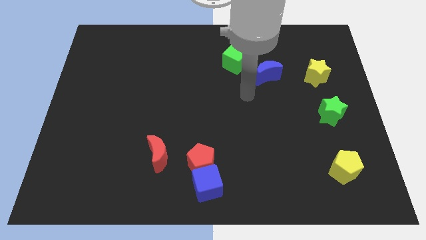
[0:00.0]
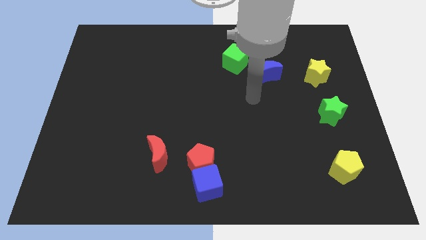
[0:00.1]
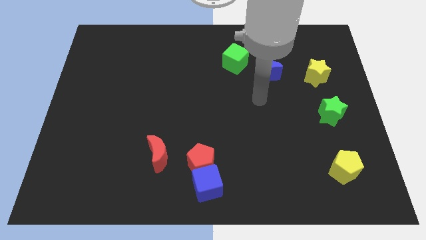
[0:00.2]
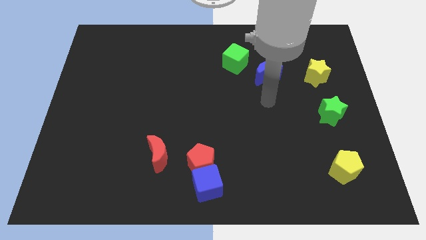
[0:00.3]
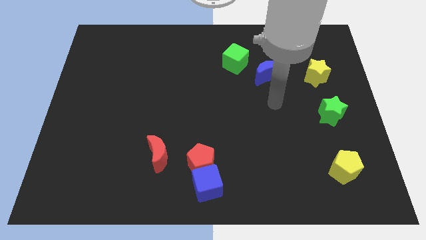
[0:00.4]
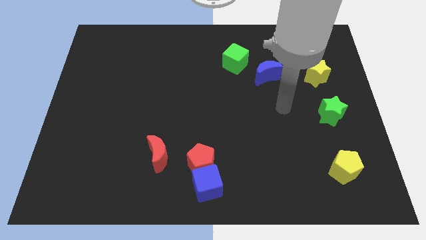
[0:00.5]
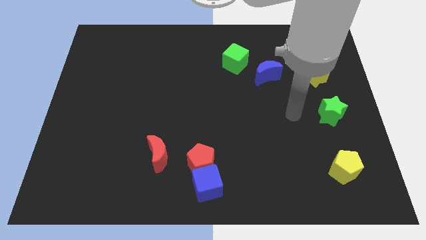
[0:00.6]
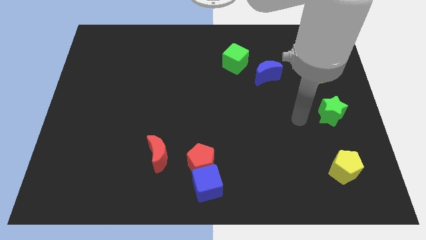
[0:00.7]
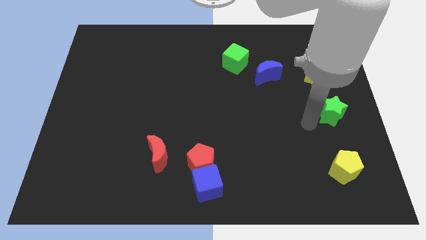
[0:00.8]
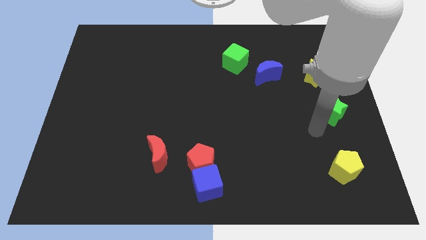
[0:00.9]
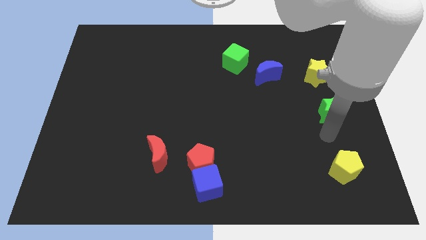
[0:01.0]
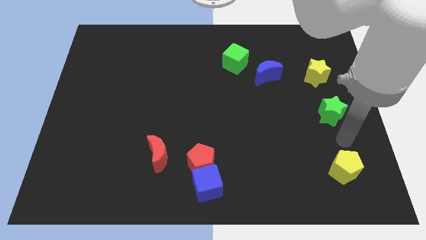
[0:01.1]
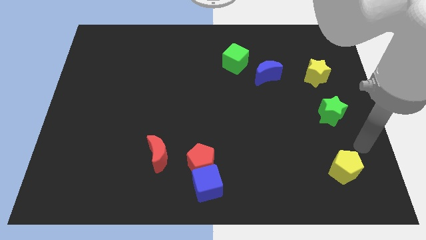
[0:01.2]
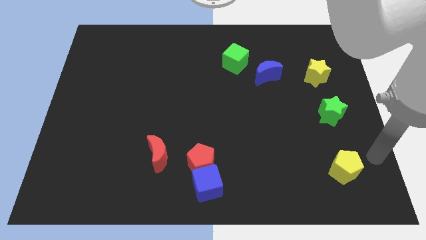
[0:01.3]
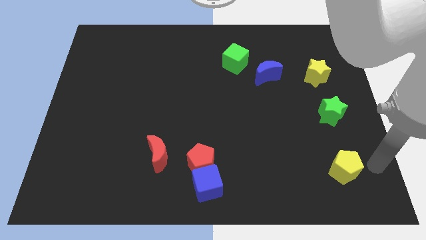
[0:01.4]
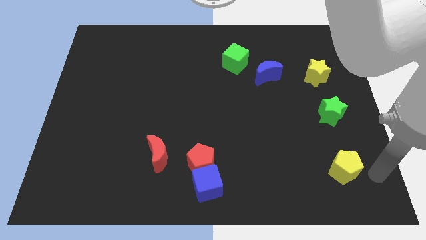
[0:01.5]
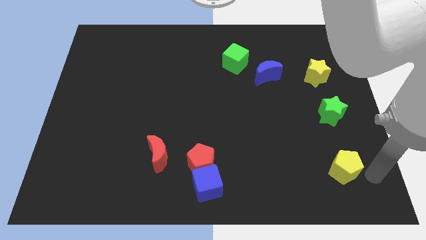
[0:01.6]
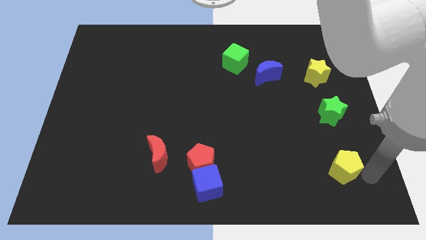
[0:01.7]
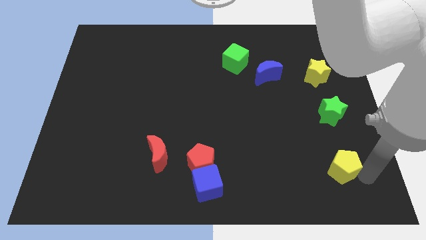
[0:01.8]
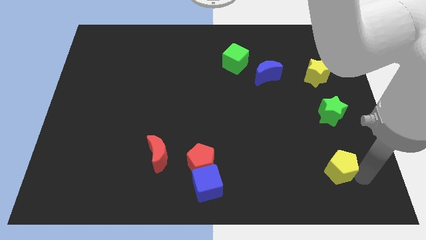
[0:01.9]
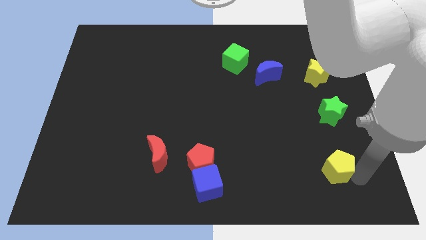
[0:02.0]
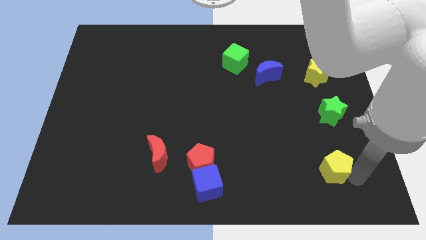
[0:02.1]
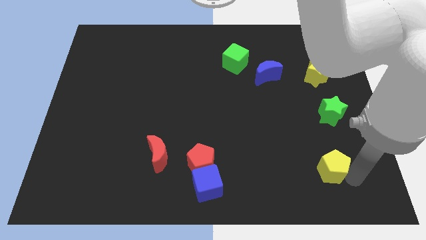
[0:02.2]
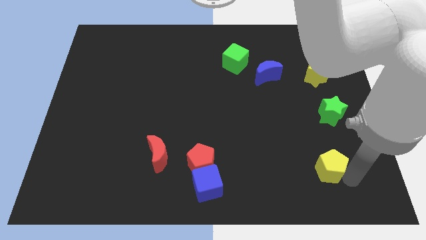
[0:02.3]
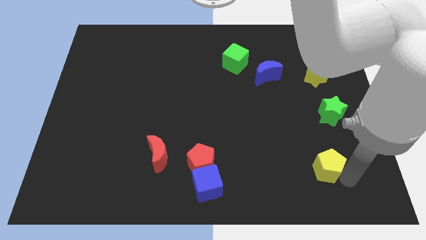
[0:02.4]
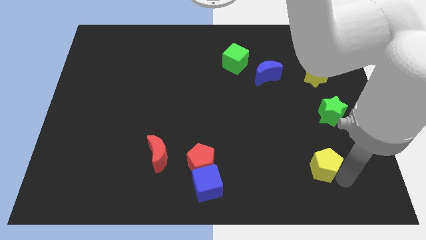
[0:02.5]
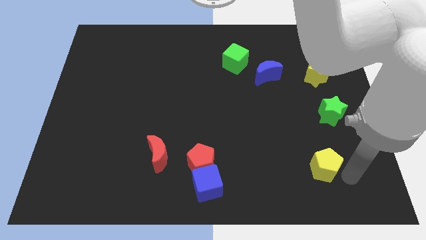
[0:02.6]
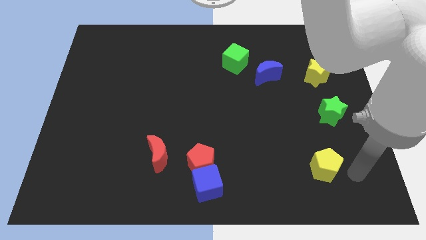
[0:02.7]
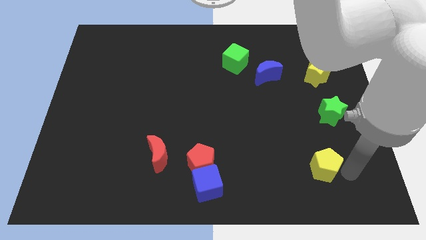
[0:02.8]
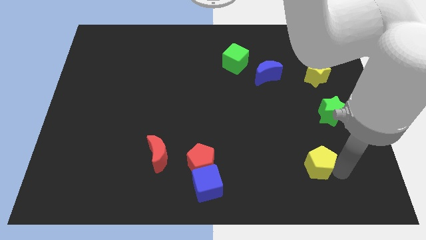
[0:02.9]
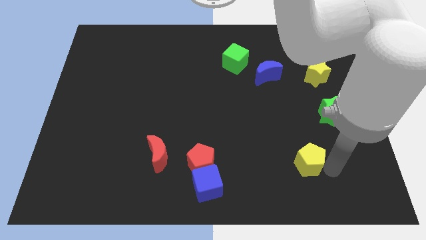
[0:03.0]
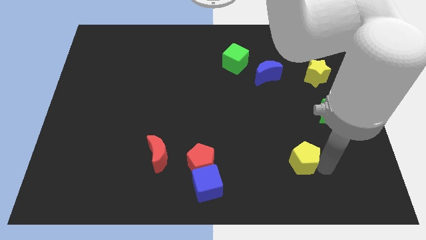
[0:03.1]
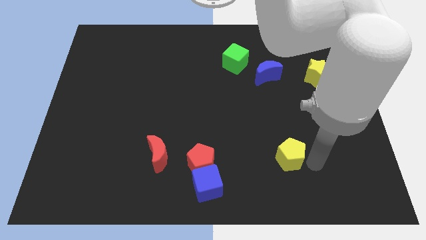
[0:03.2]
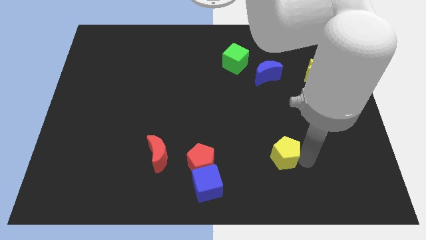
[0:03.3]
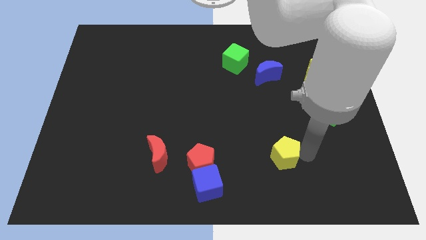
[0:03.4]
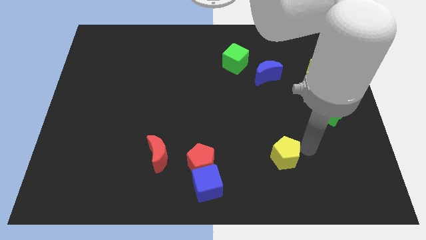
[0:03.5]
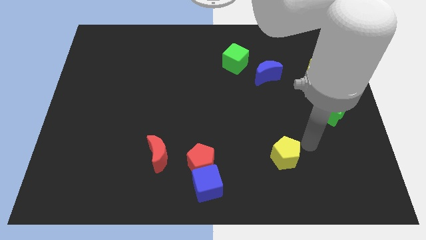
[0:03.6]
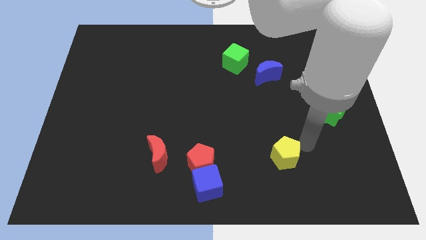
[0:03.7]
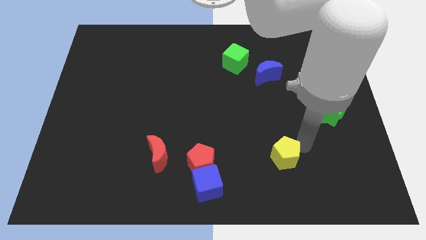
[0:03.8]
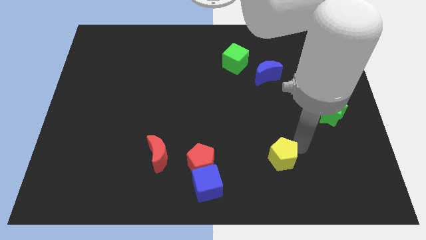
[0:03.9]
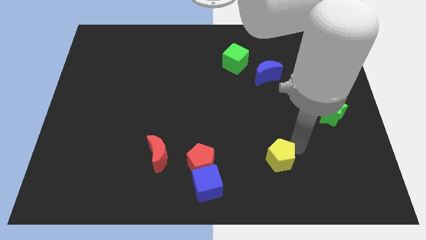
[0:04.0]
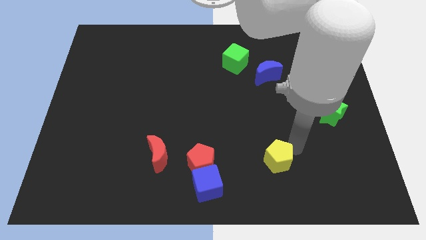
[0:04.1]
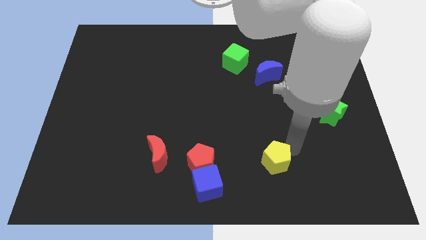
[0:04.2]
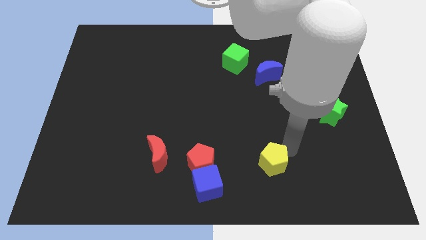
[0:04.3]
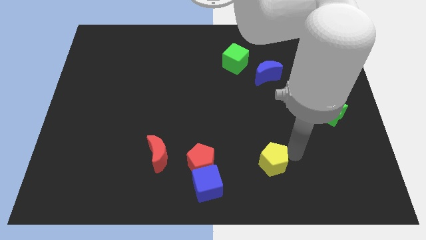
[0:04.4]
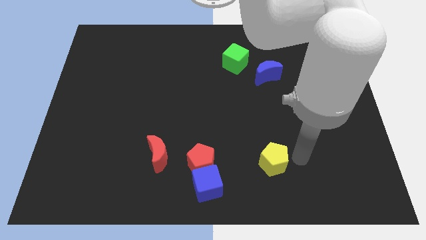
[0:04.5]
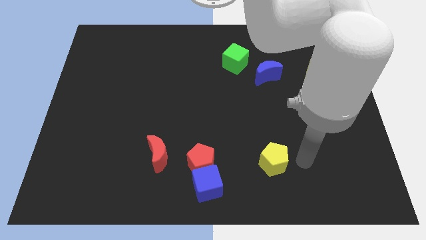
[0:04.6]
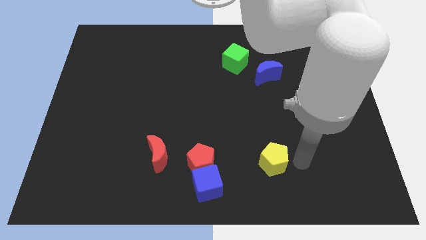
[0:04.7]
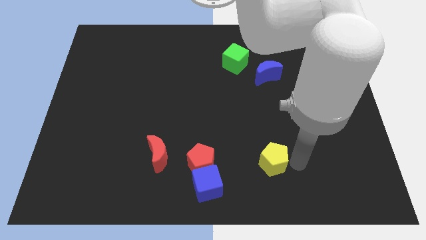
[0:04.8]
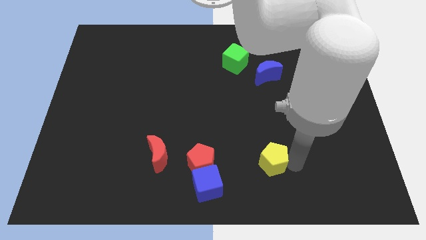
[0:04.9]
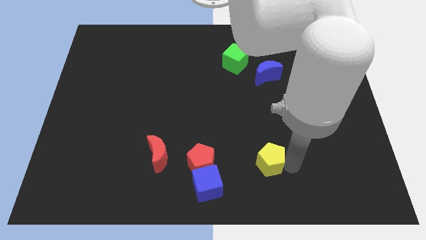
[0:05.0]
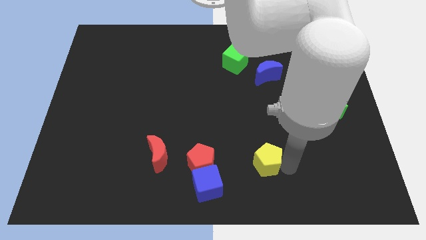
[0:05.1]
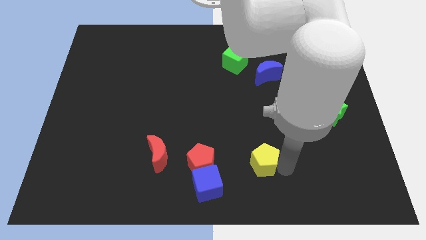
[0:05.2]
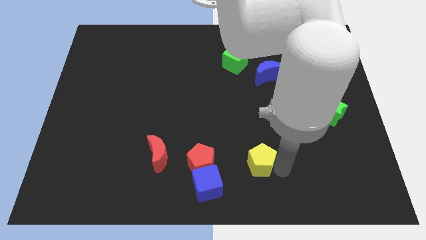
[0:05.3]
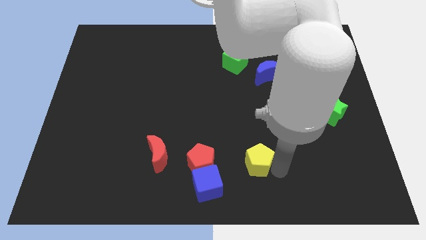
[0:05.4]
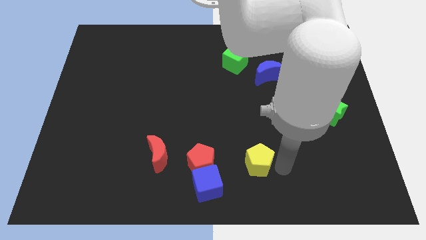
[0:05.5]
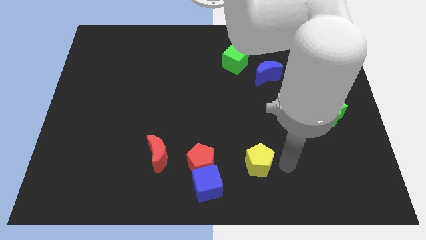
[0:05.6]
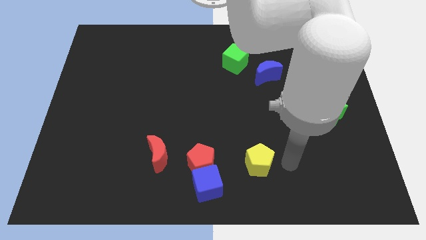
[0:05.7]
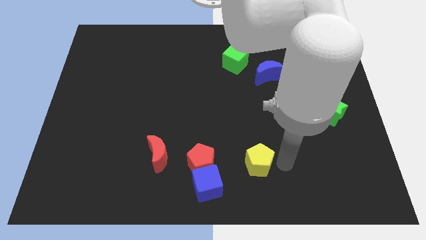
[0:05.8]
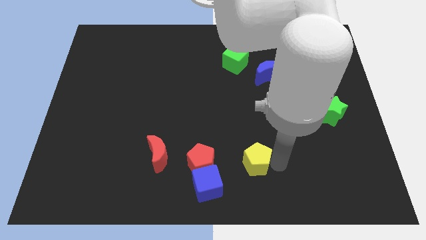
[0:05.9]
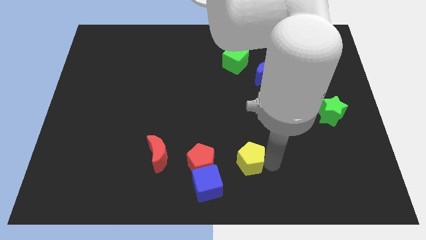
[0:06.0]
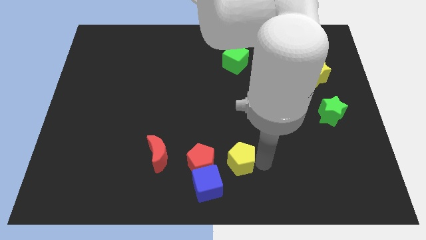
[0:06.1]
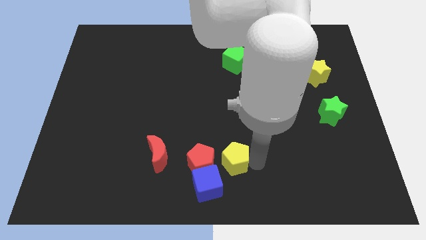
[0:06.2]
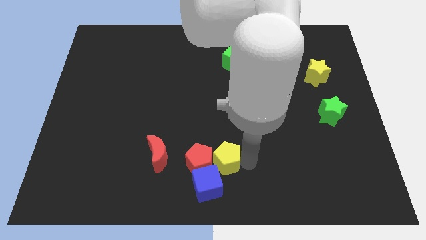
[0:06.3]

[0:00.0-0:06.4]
push the yellow pentagon close to the red pentagon

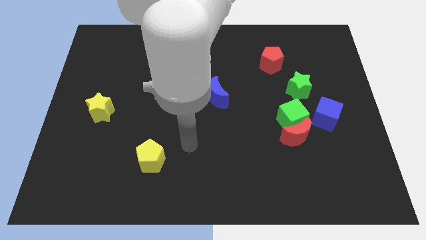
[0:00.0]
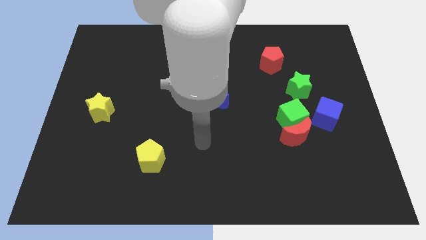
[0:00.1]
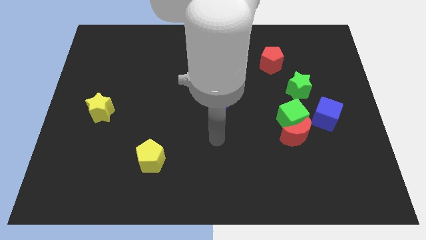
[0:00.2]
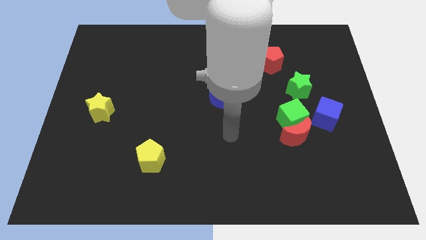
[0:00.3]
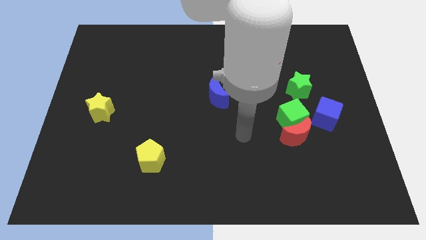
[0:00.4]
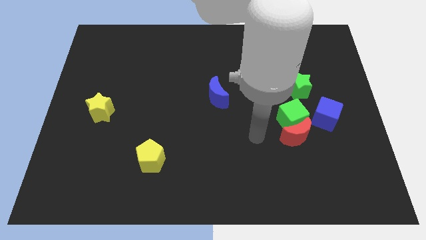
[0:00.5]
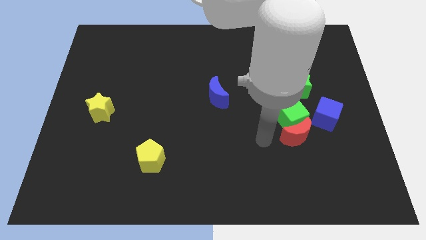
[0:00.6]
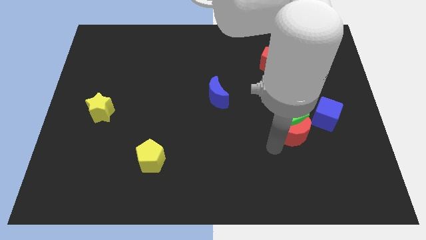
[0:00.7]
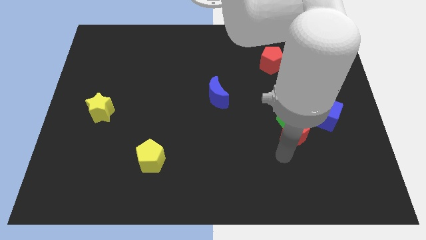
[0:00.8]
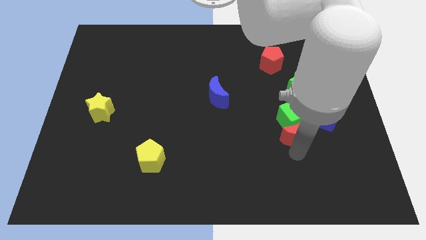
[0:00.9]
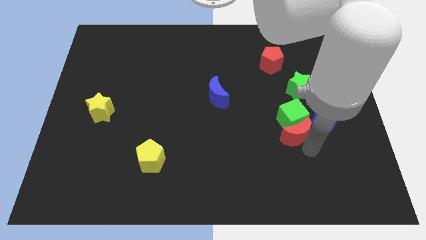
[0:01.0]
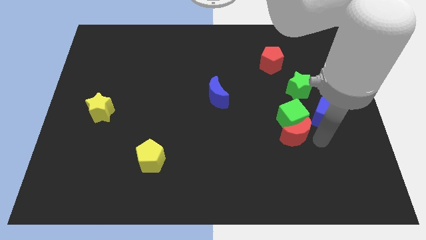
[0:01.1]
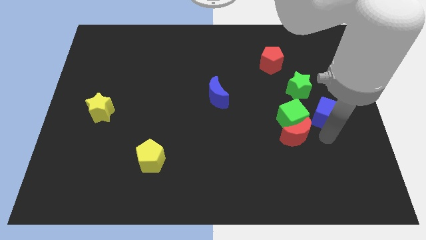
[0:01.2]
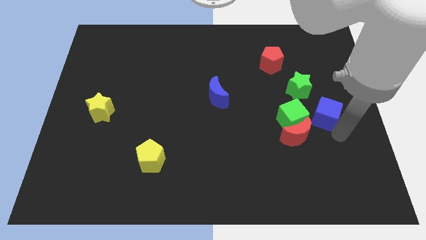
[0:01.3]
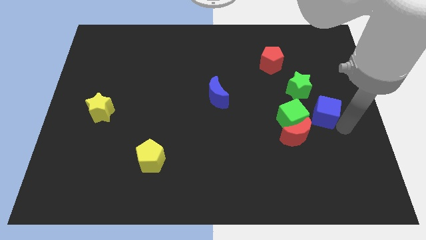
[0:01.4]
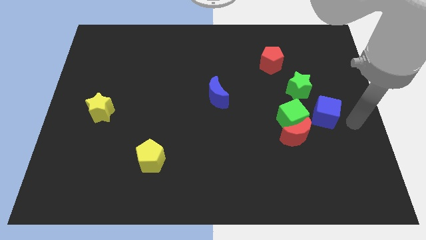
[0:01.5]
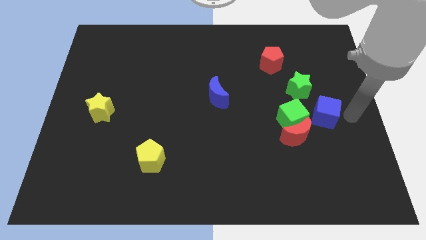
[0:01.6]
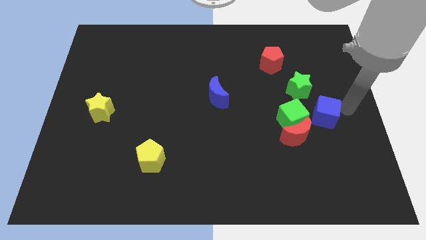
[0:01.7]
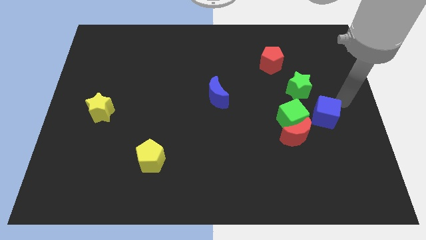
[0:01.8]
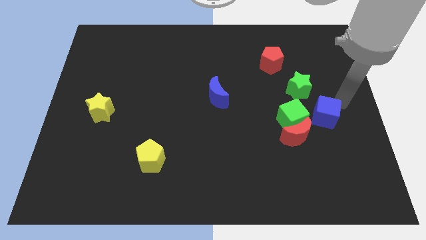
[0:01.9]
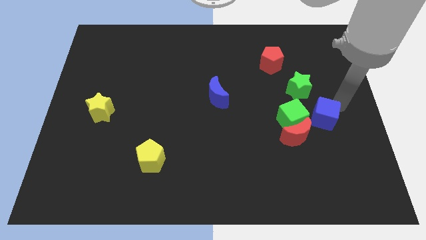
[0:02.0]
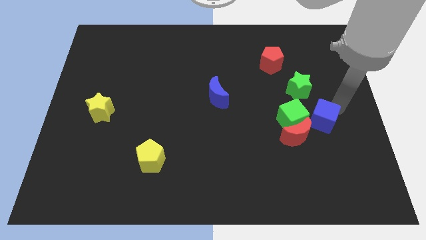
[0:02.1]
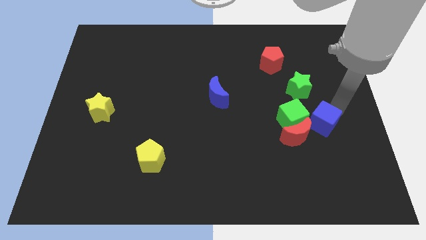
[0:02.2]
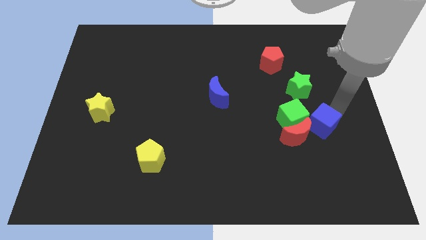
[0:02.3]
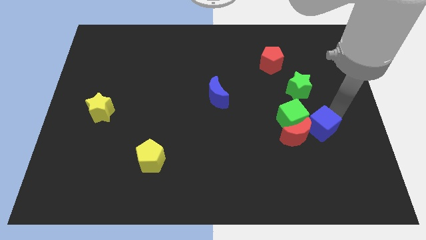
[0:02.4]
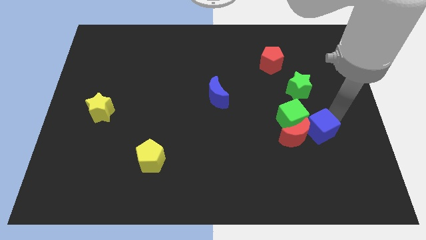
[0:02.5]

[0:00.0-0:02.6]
slide the blue cube towards the red moon
